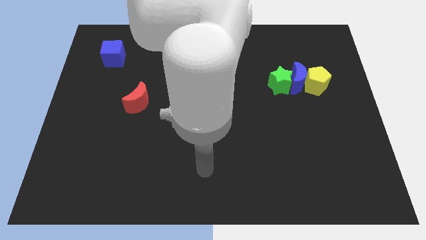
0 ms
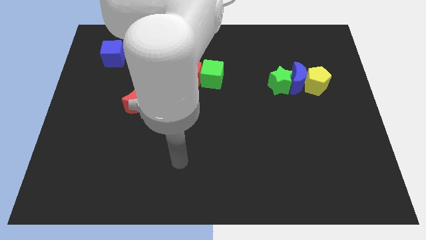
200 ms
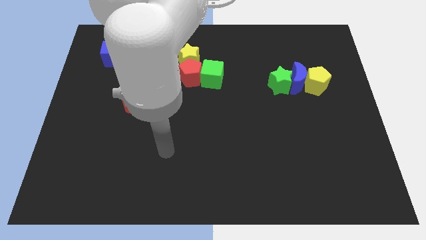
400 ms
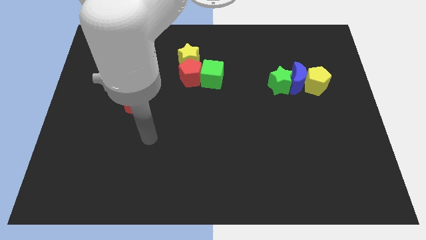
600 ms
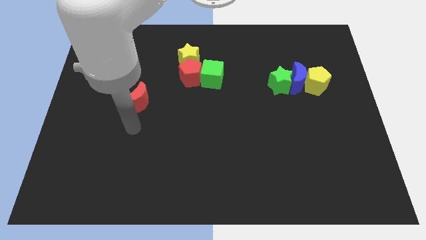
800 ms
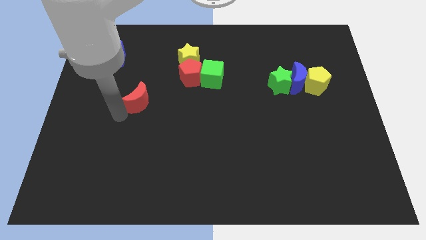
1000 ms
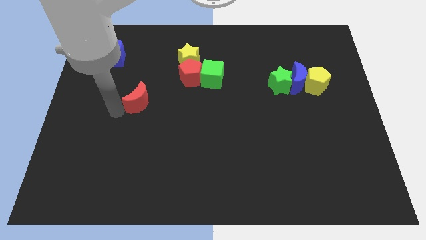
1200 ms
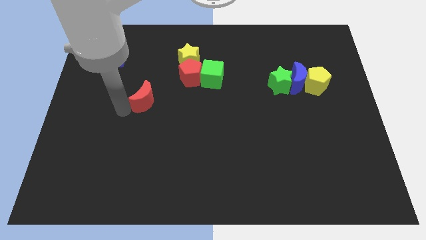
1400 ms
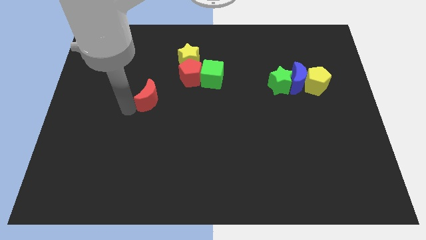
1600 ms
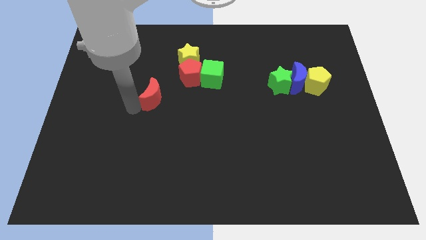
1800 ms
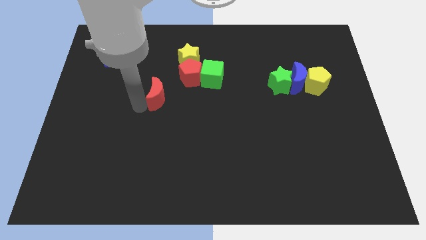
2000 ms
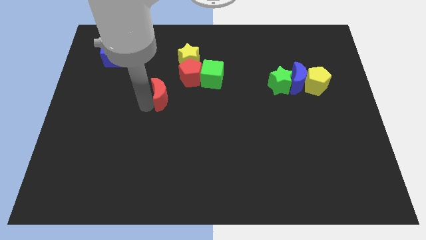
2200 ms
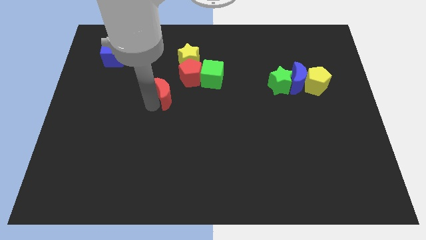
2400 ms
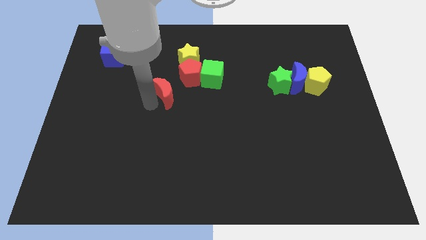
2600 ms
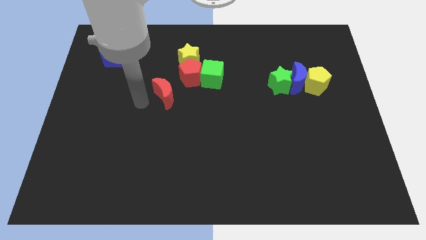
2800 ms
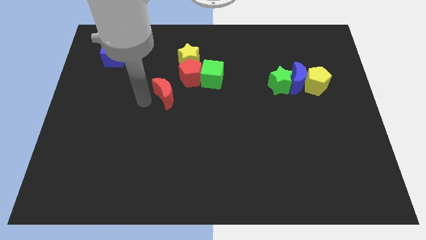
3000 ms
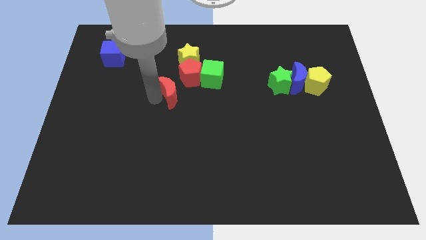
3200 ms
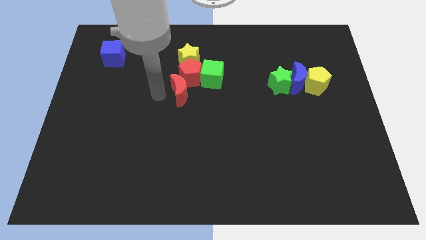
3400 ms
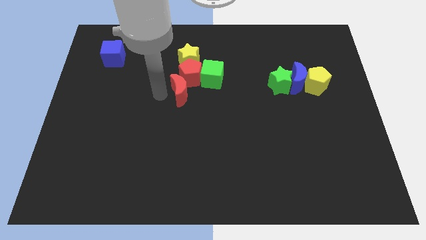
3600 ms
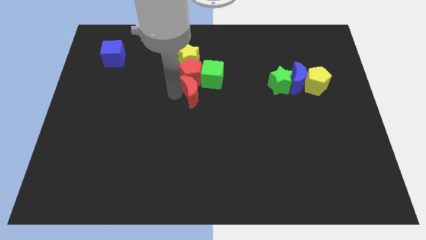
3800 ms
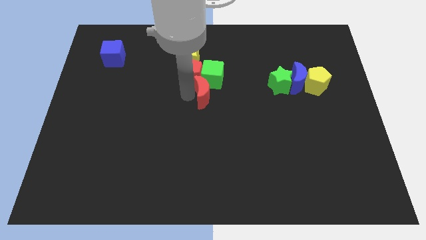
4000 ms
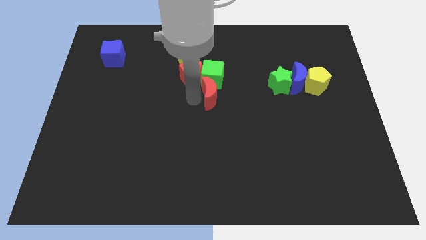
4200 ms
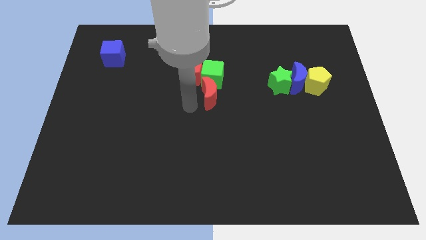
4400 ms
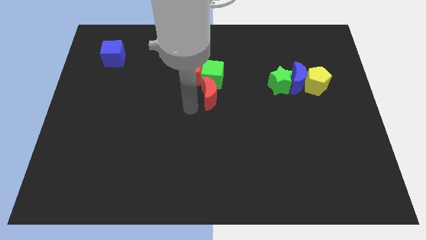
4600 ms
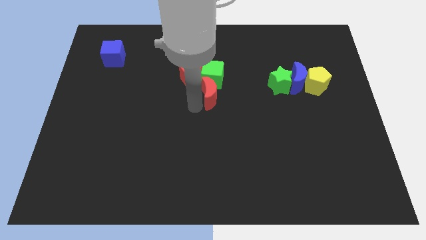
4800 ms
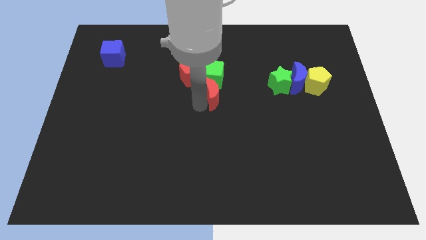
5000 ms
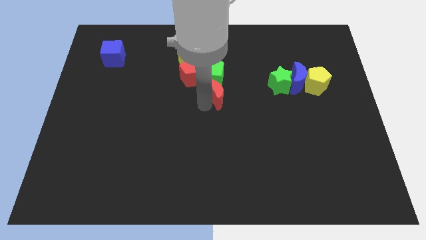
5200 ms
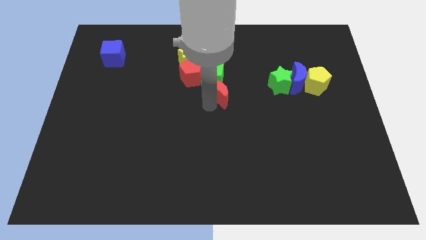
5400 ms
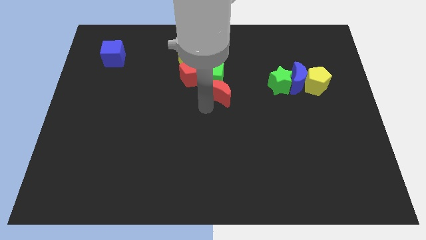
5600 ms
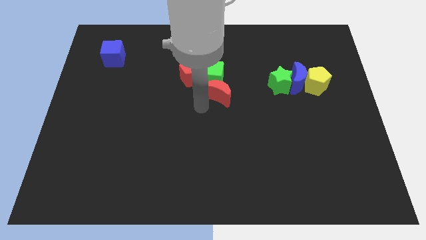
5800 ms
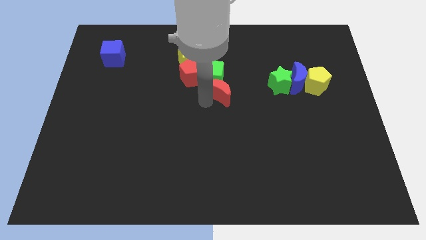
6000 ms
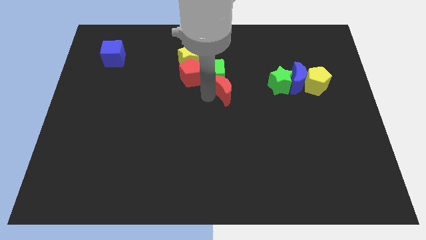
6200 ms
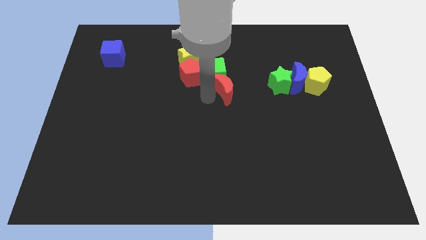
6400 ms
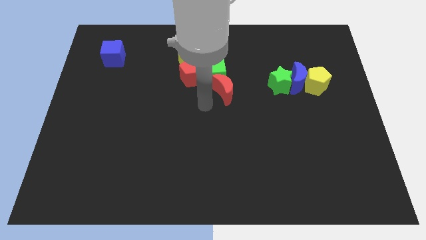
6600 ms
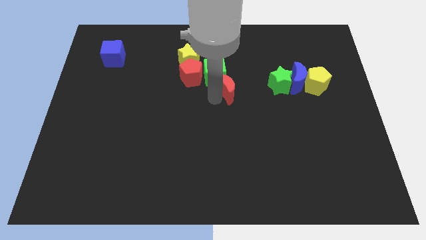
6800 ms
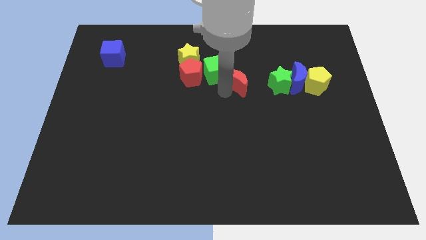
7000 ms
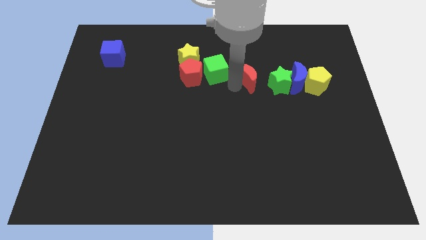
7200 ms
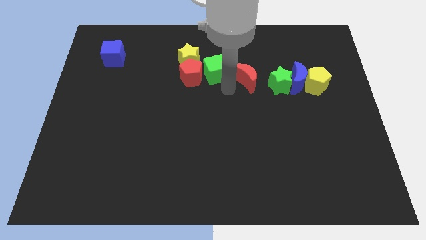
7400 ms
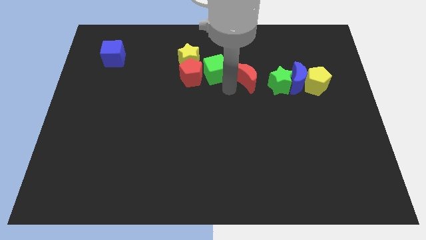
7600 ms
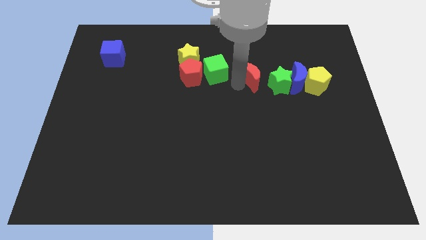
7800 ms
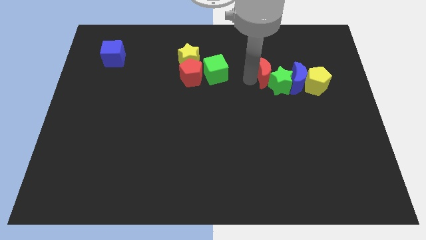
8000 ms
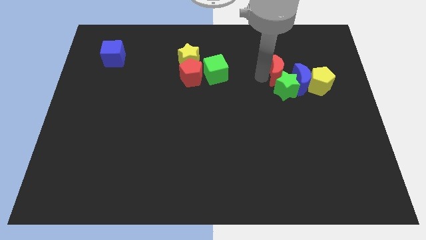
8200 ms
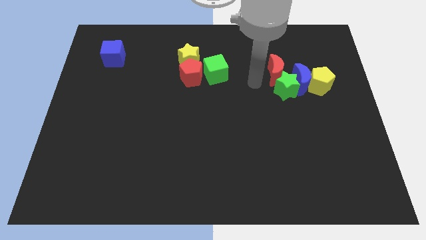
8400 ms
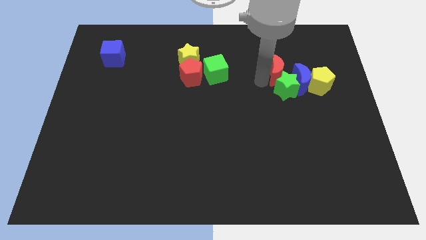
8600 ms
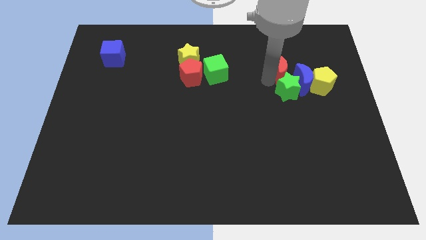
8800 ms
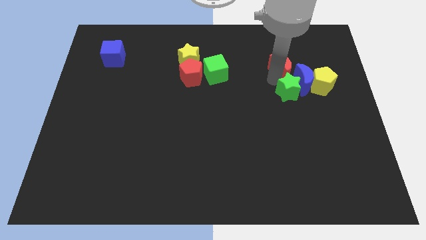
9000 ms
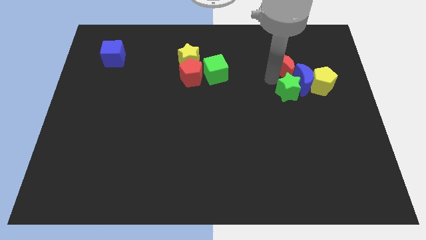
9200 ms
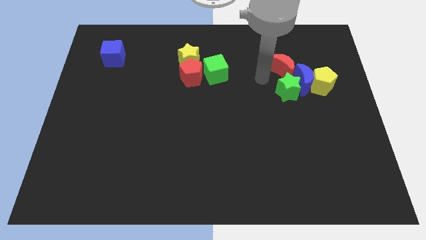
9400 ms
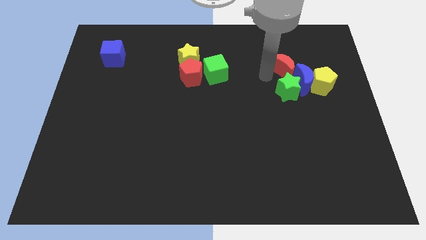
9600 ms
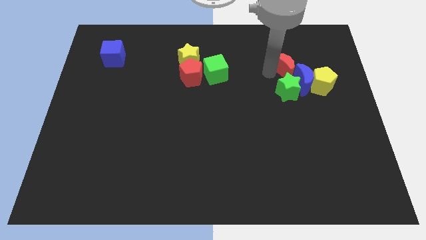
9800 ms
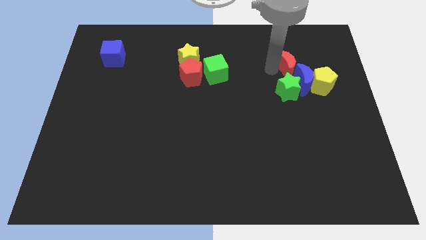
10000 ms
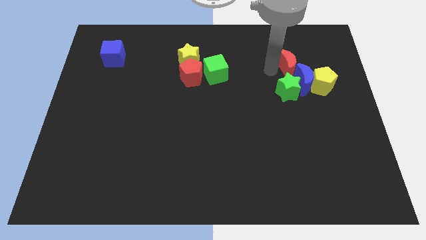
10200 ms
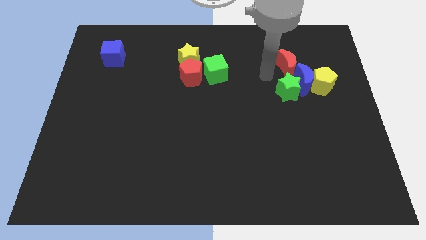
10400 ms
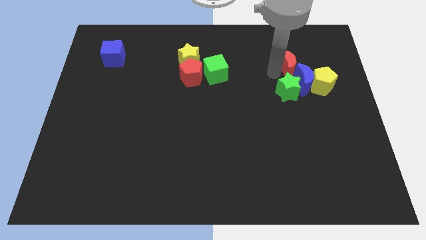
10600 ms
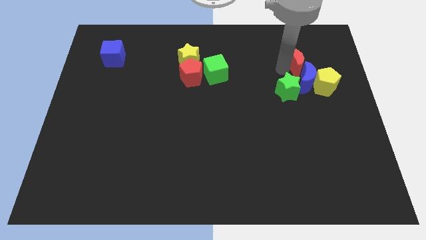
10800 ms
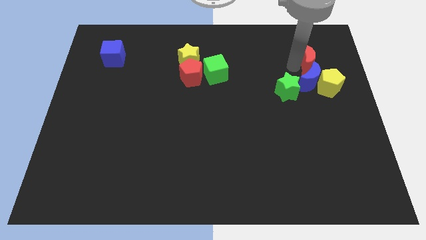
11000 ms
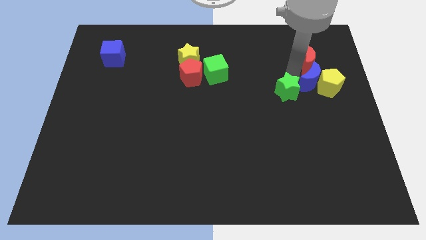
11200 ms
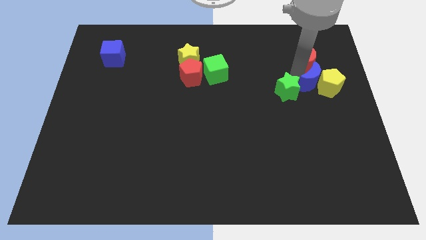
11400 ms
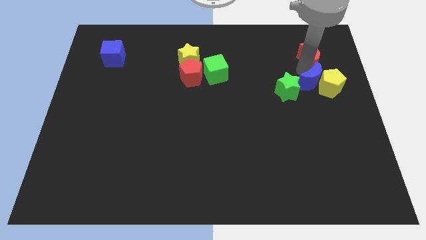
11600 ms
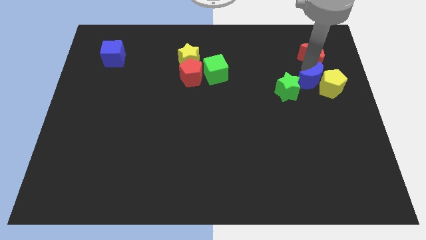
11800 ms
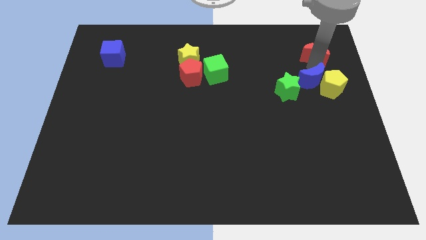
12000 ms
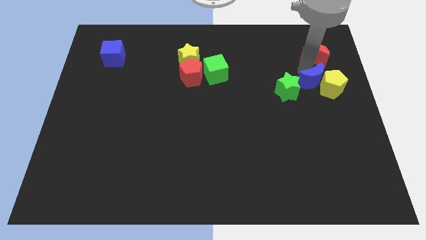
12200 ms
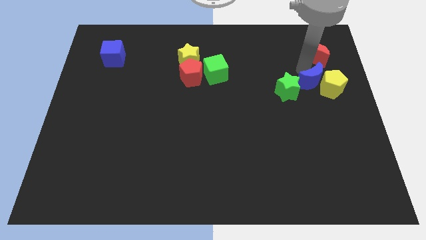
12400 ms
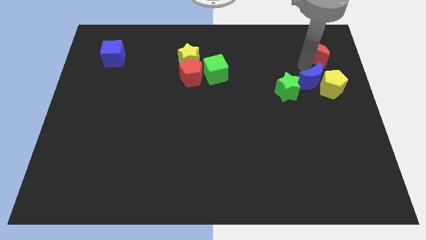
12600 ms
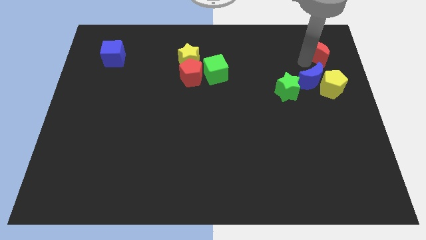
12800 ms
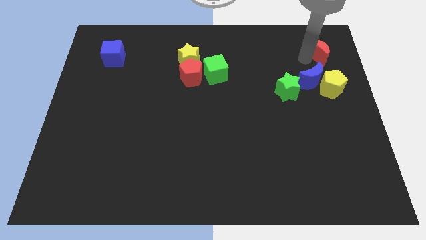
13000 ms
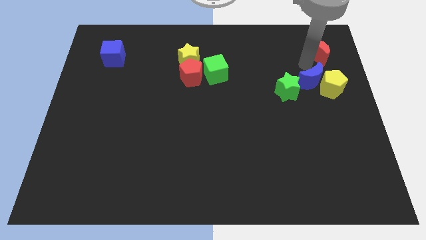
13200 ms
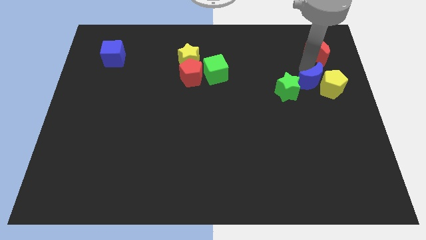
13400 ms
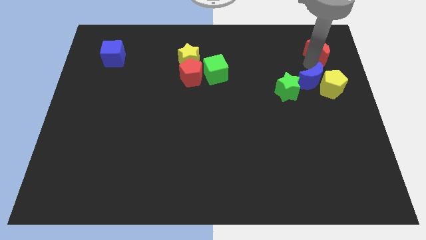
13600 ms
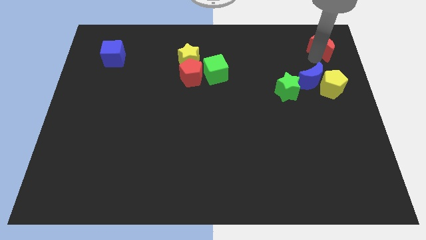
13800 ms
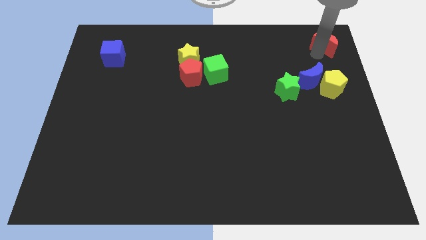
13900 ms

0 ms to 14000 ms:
put the red moon to the top right
